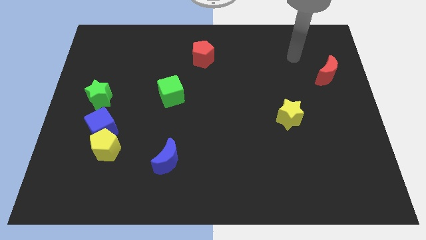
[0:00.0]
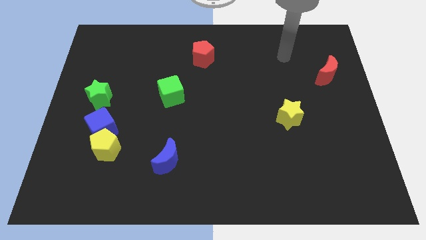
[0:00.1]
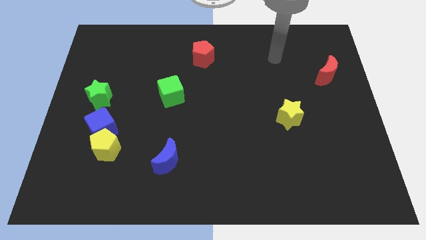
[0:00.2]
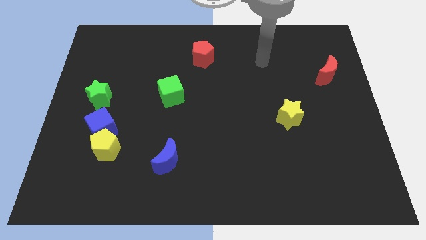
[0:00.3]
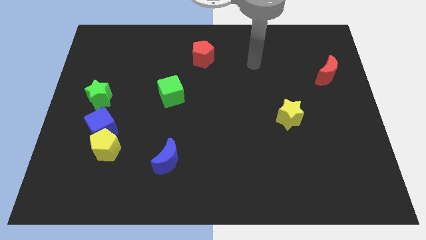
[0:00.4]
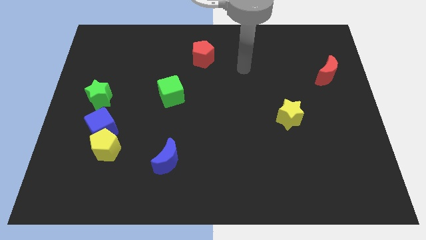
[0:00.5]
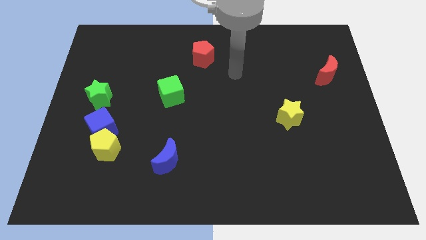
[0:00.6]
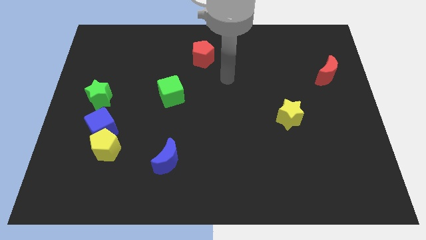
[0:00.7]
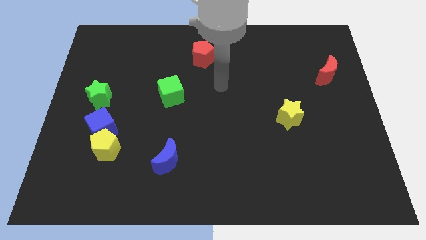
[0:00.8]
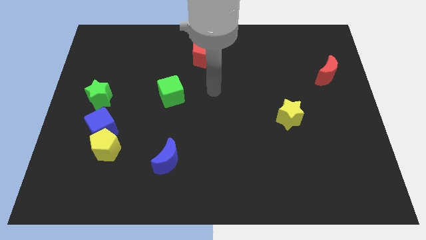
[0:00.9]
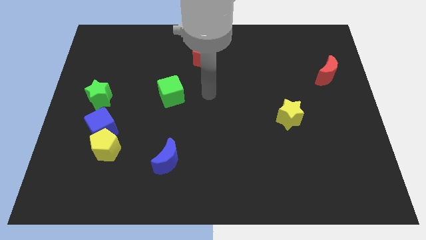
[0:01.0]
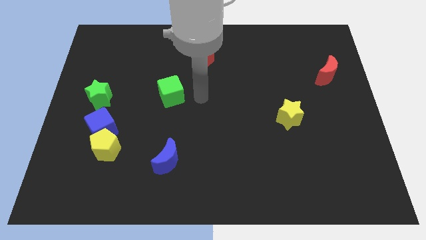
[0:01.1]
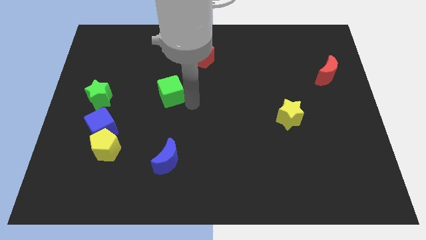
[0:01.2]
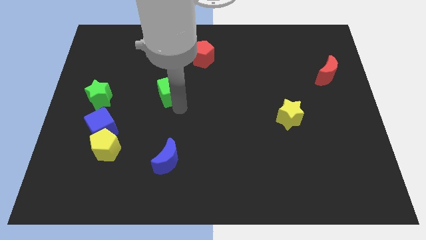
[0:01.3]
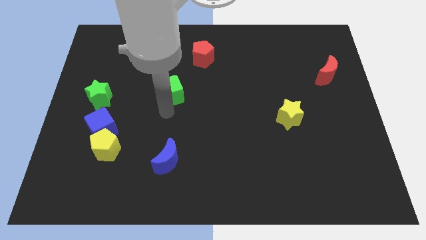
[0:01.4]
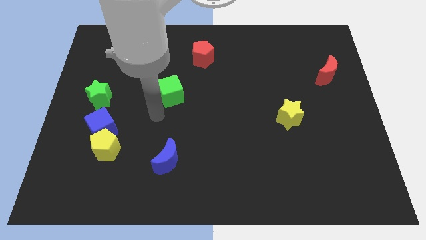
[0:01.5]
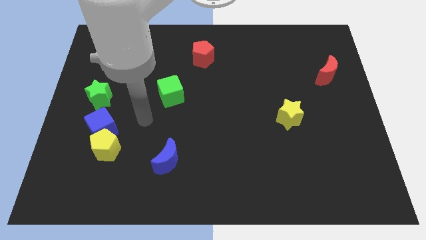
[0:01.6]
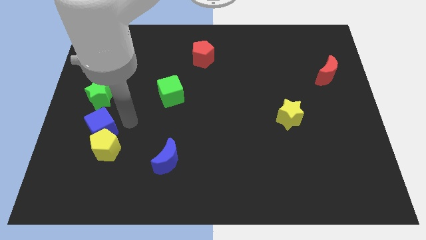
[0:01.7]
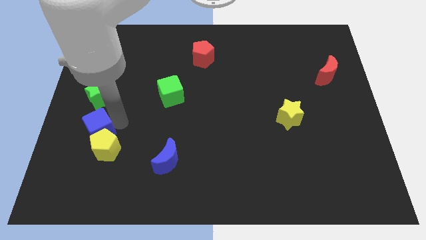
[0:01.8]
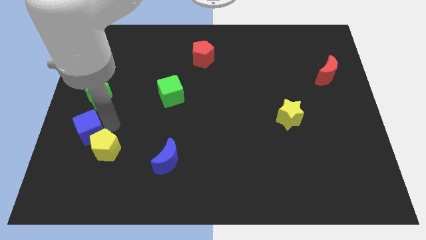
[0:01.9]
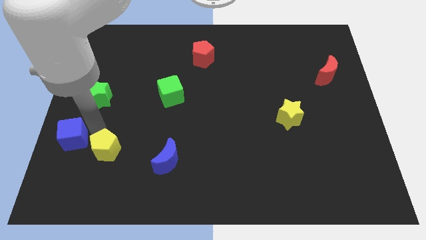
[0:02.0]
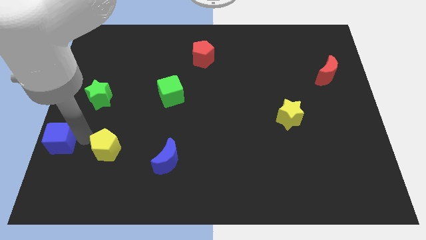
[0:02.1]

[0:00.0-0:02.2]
move the yellow pentagon away from the blue cube

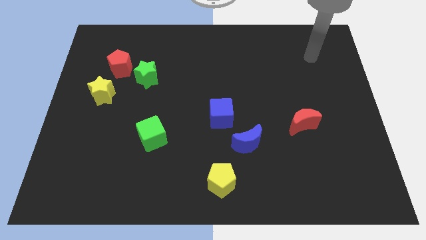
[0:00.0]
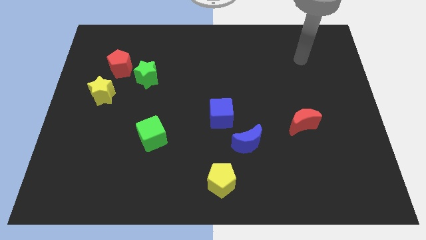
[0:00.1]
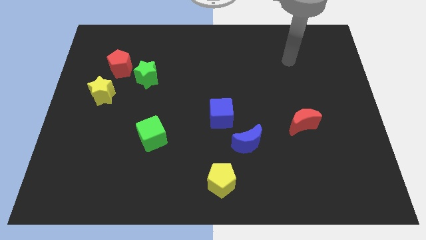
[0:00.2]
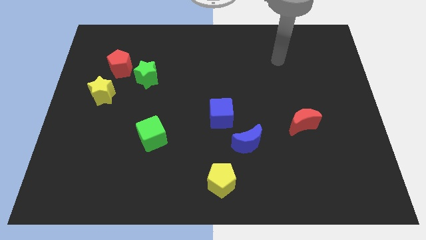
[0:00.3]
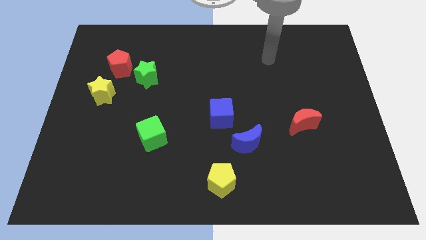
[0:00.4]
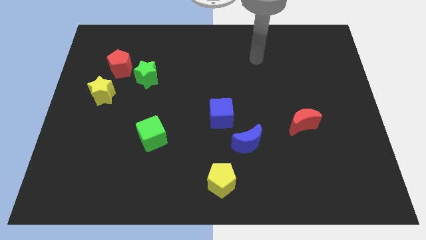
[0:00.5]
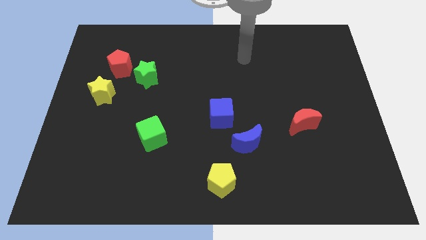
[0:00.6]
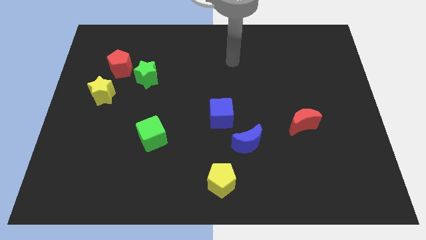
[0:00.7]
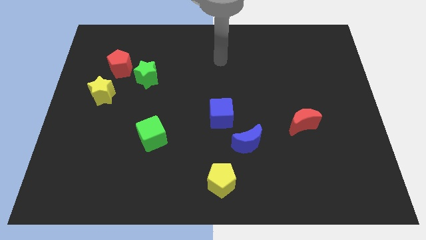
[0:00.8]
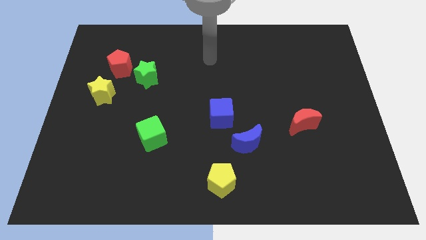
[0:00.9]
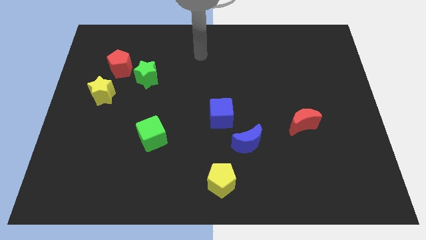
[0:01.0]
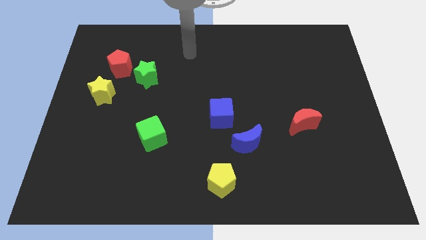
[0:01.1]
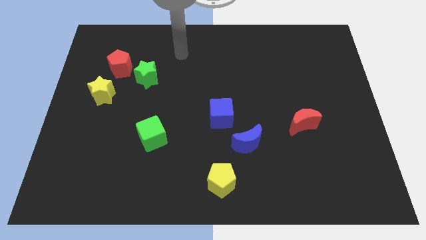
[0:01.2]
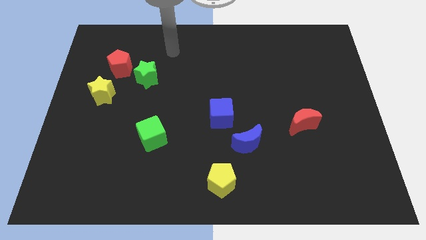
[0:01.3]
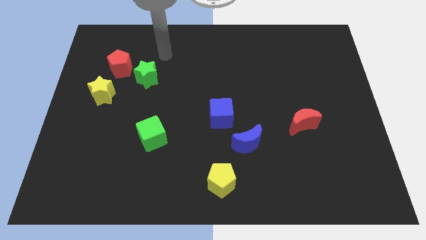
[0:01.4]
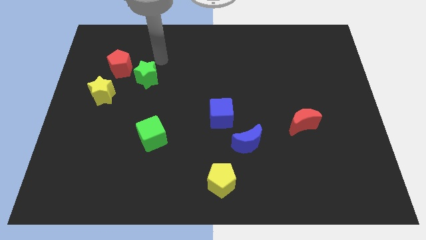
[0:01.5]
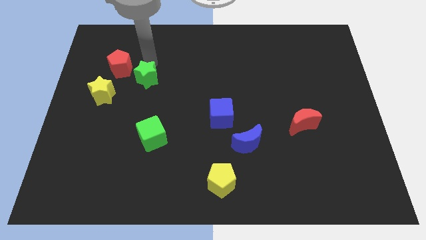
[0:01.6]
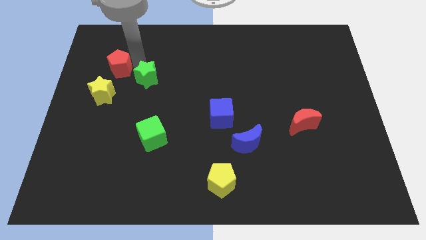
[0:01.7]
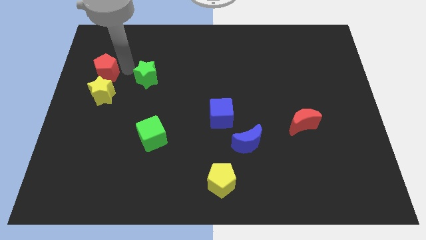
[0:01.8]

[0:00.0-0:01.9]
separate the green star from the red pentagon

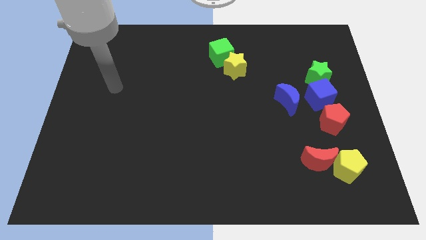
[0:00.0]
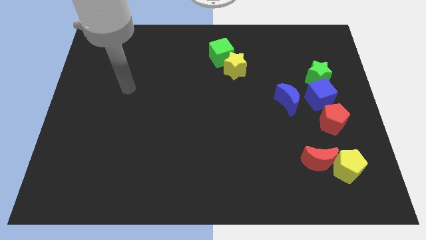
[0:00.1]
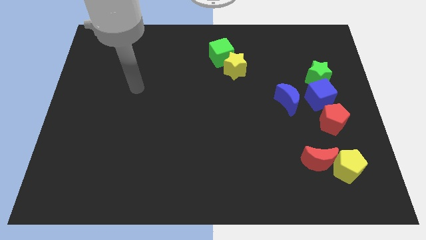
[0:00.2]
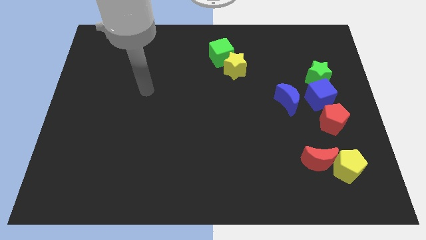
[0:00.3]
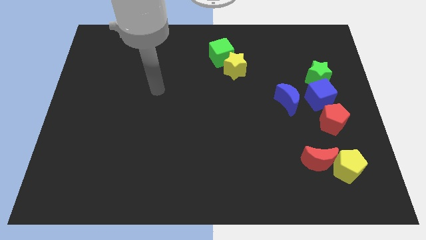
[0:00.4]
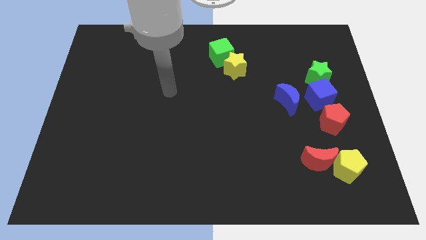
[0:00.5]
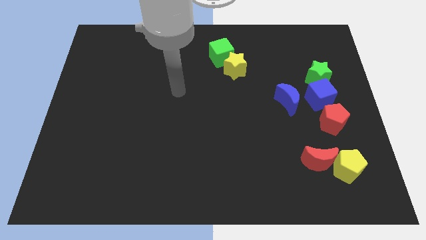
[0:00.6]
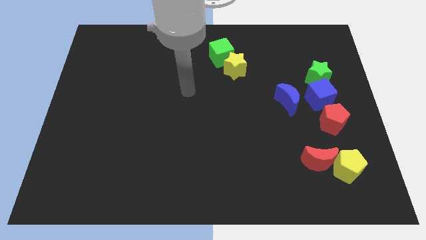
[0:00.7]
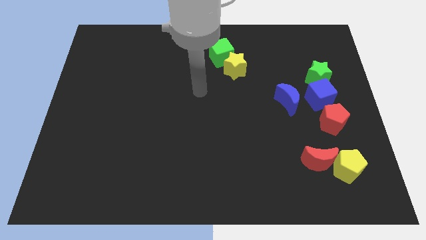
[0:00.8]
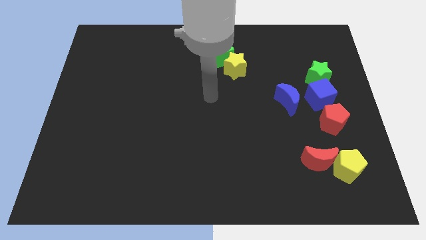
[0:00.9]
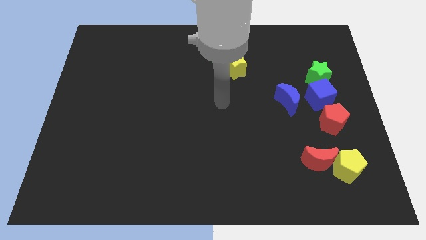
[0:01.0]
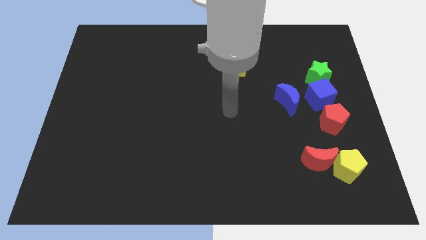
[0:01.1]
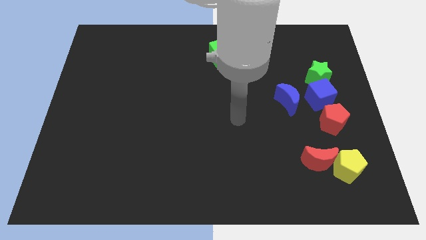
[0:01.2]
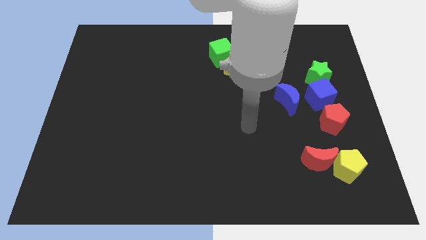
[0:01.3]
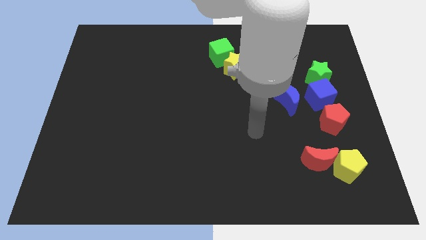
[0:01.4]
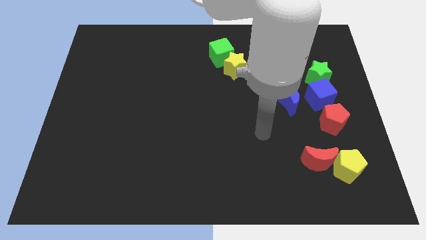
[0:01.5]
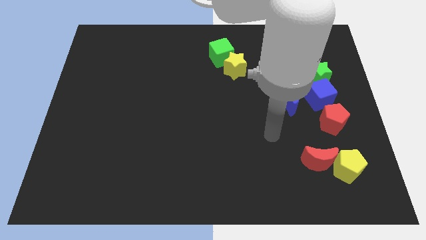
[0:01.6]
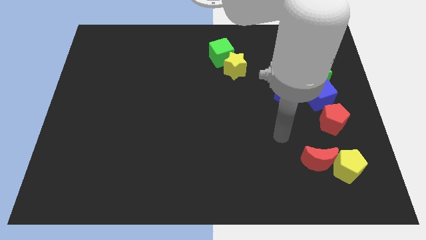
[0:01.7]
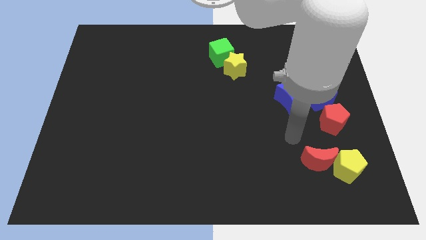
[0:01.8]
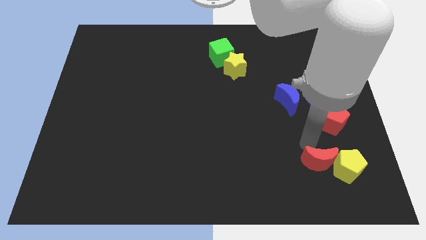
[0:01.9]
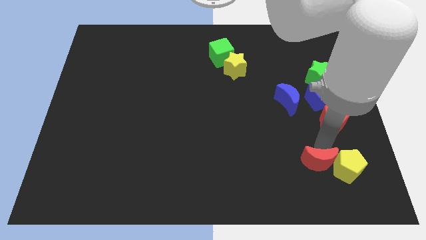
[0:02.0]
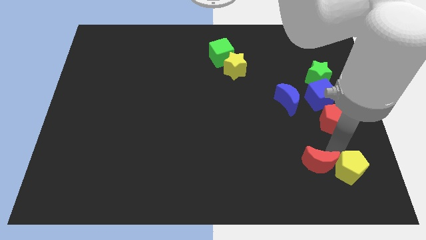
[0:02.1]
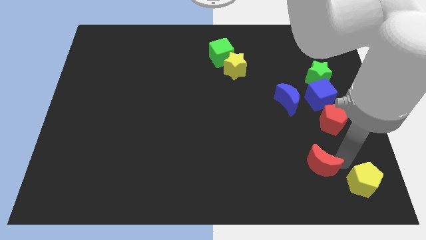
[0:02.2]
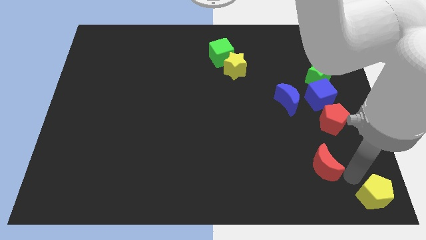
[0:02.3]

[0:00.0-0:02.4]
separate the red moon from the yellow pentagon

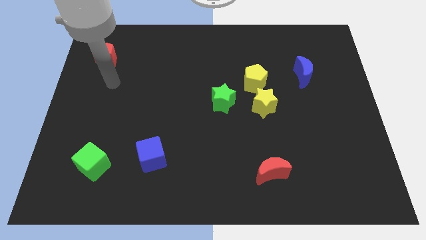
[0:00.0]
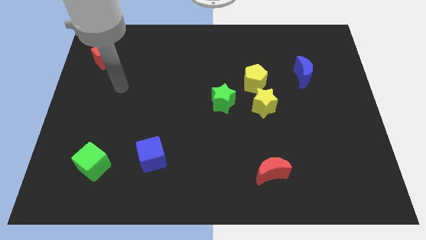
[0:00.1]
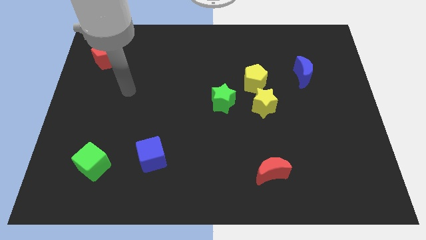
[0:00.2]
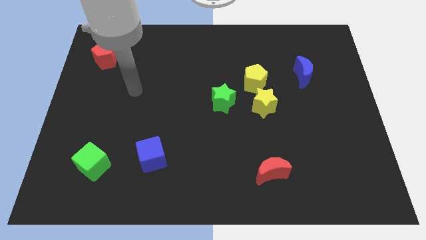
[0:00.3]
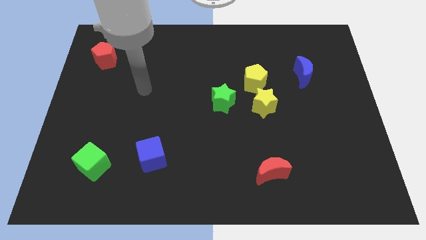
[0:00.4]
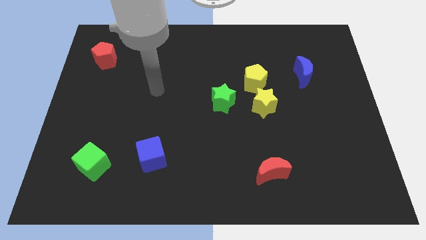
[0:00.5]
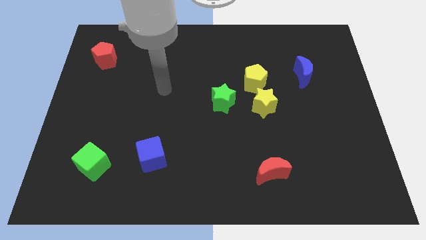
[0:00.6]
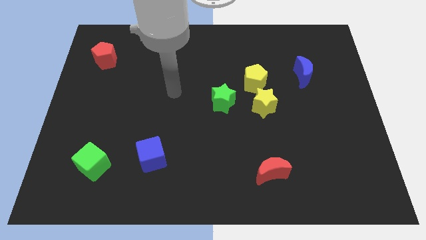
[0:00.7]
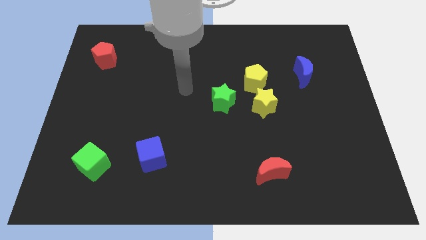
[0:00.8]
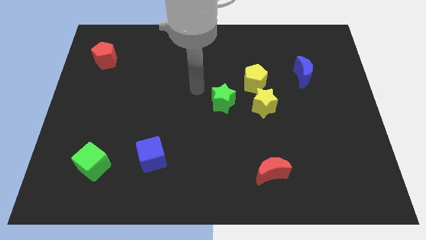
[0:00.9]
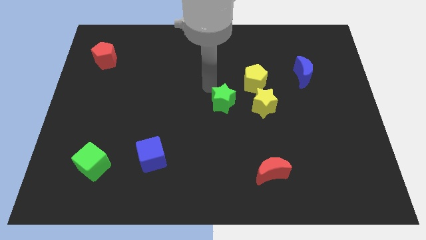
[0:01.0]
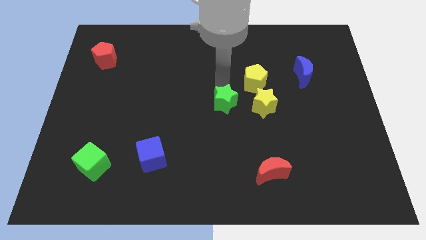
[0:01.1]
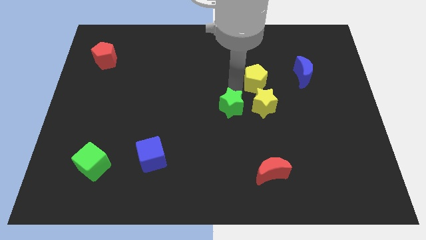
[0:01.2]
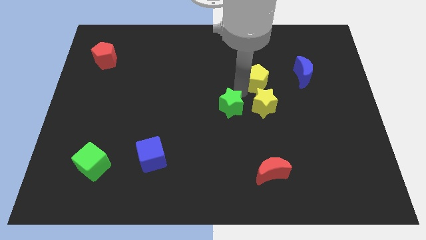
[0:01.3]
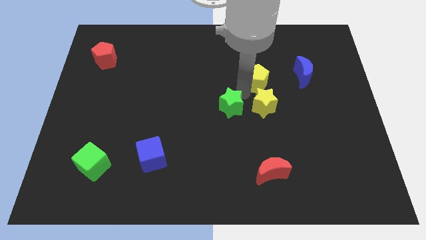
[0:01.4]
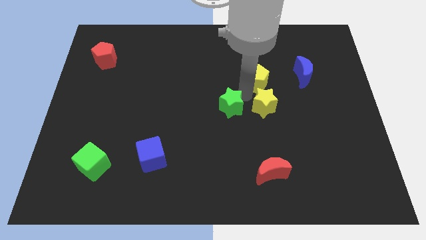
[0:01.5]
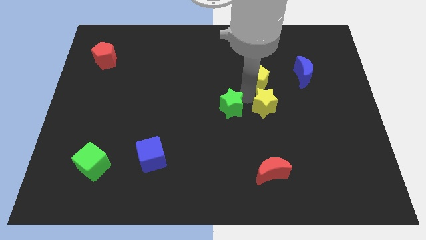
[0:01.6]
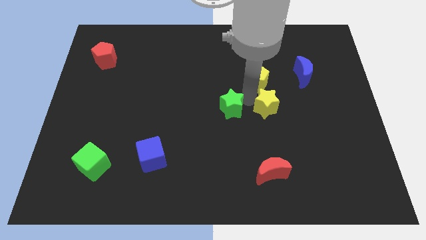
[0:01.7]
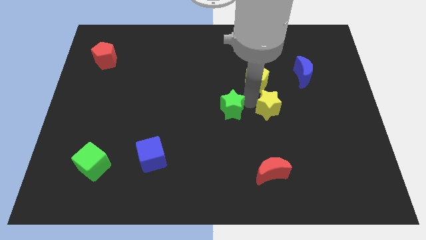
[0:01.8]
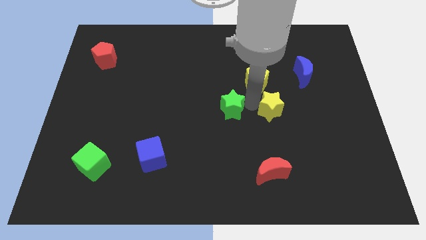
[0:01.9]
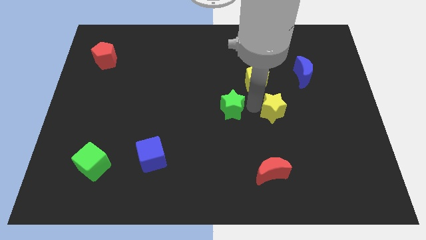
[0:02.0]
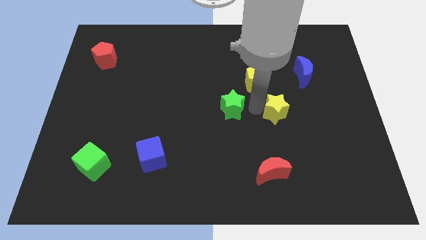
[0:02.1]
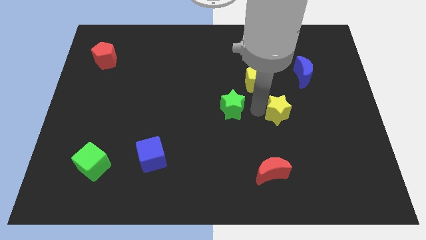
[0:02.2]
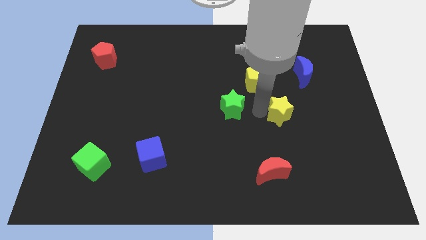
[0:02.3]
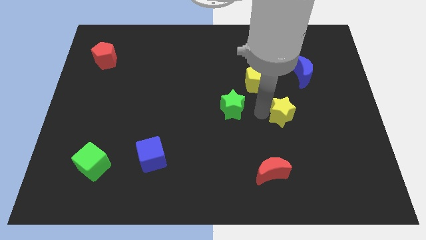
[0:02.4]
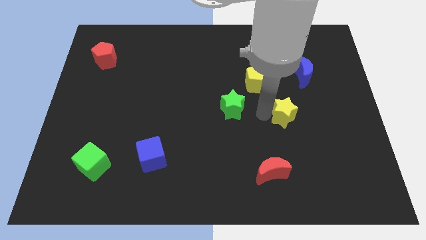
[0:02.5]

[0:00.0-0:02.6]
pull the yellow star apart from the yellow pentagon and green star

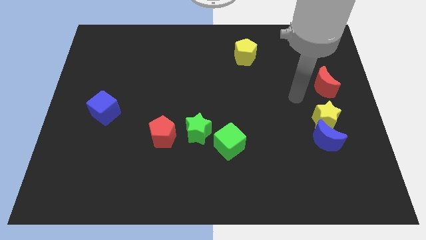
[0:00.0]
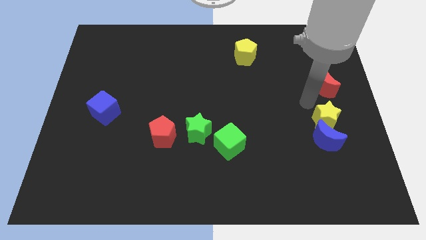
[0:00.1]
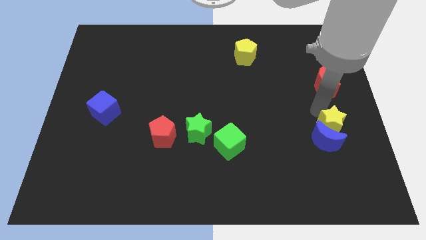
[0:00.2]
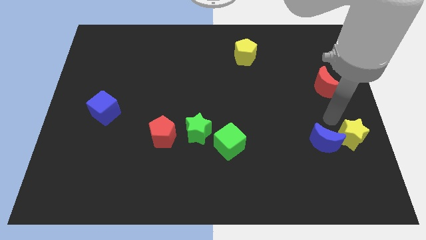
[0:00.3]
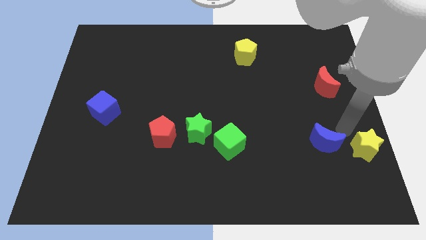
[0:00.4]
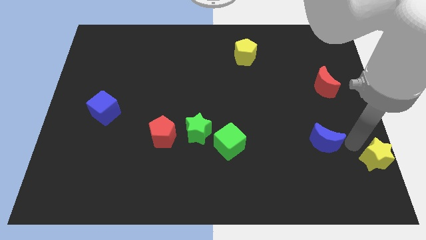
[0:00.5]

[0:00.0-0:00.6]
pull the blue moon apart from the yellow star
